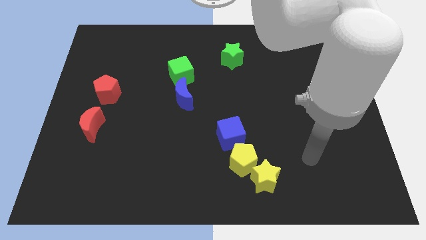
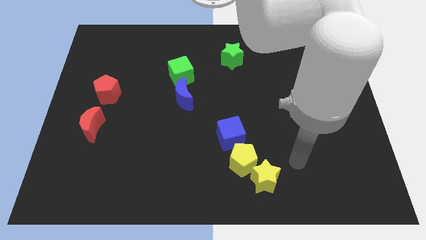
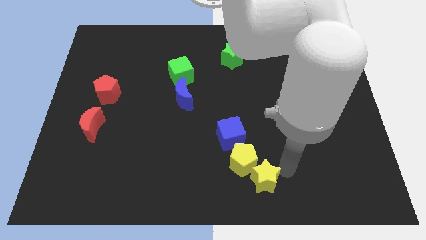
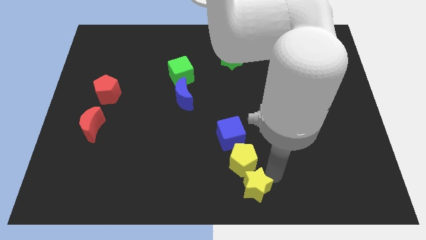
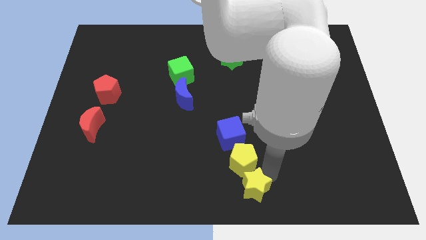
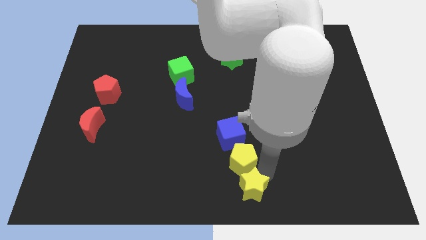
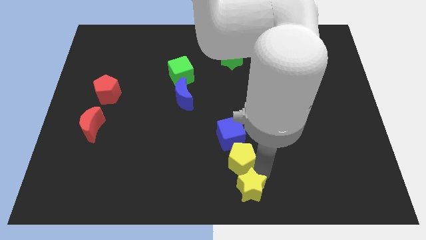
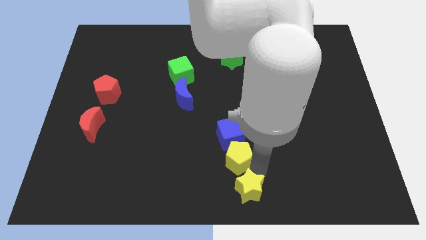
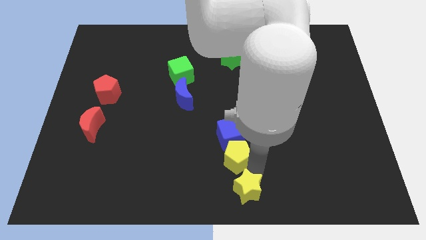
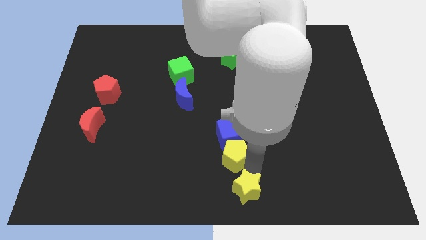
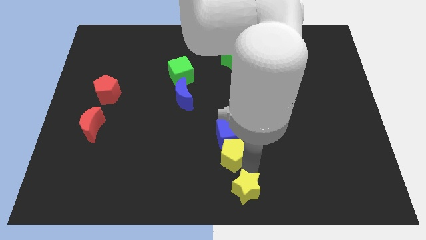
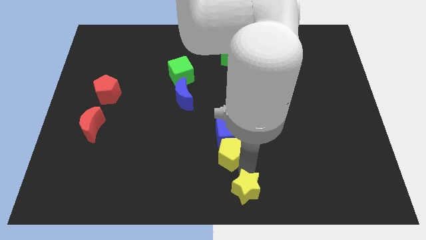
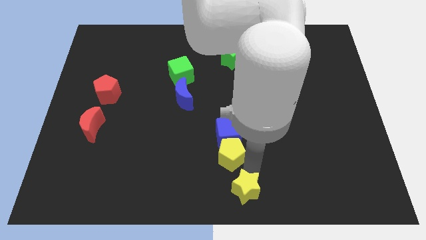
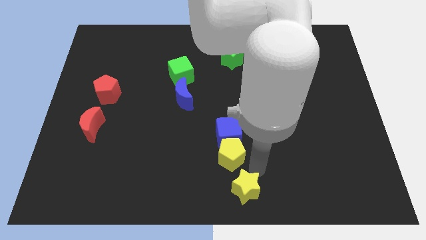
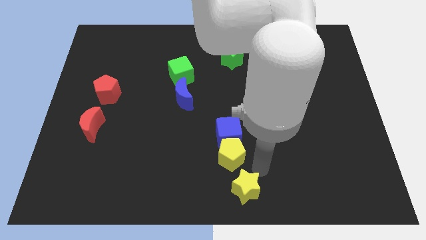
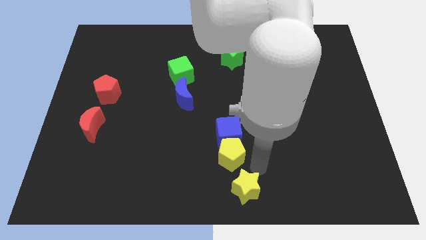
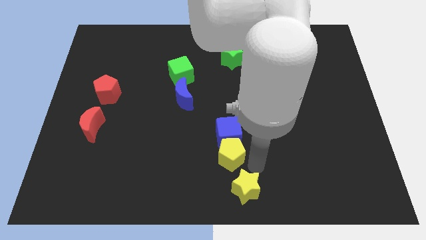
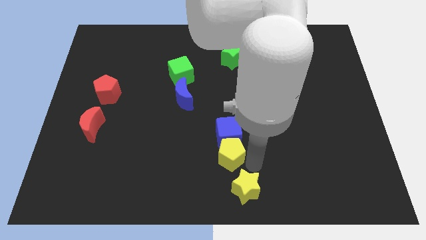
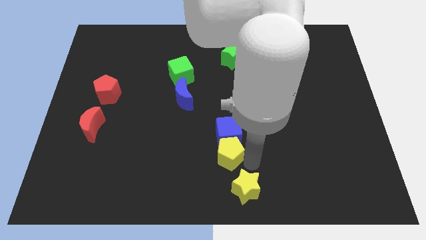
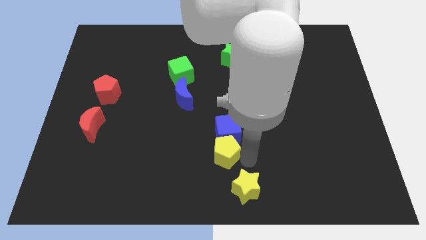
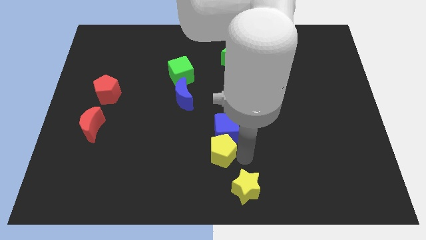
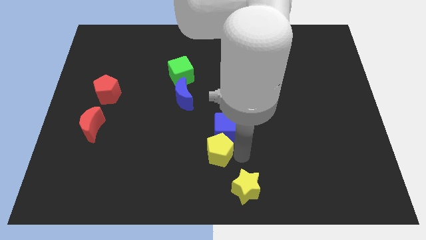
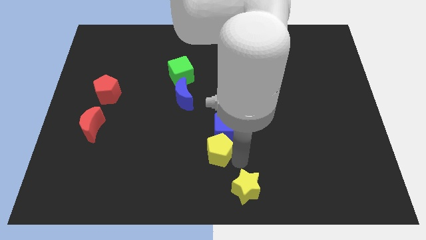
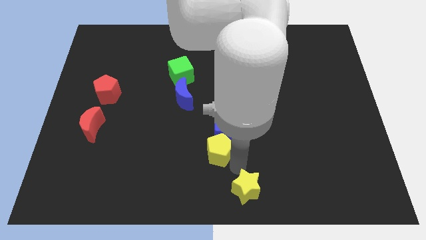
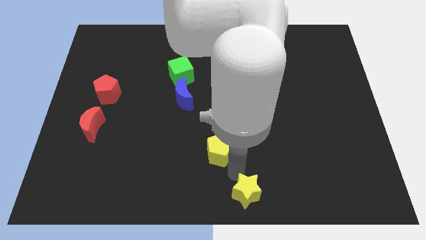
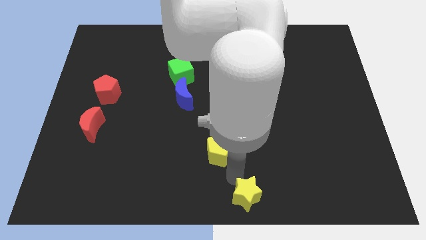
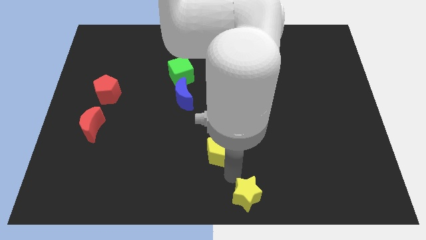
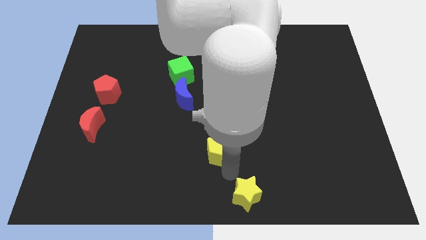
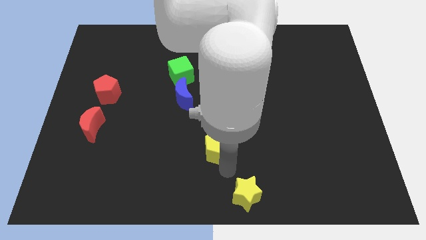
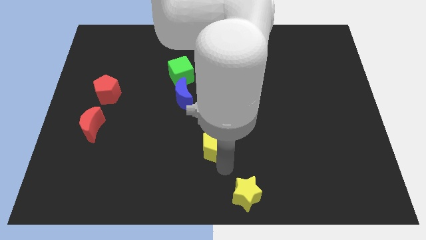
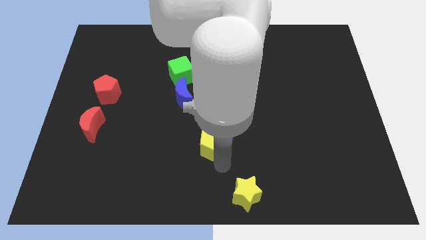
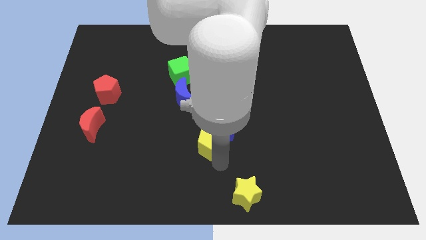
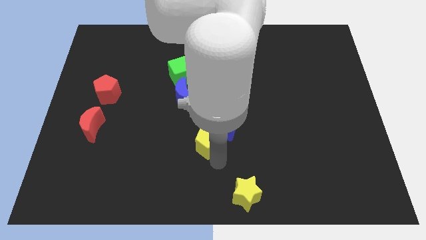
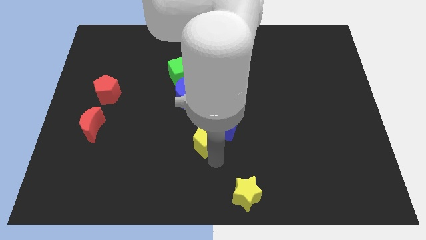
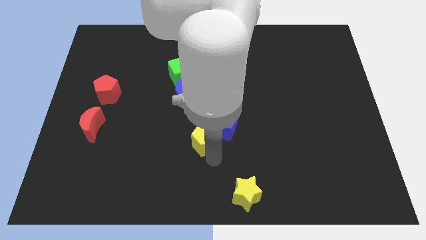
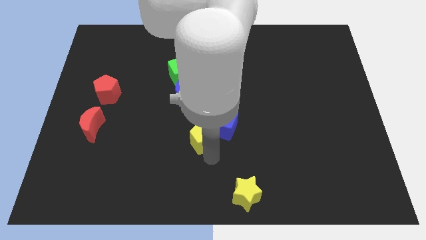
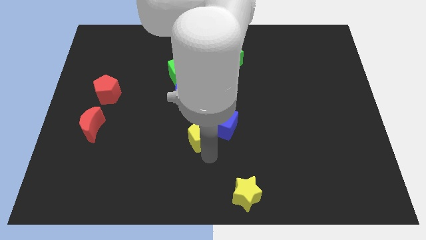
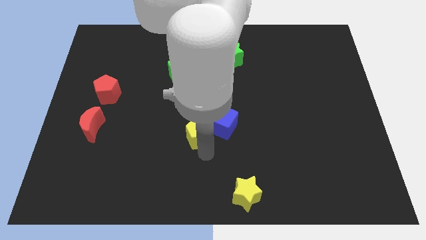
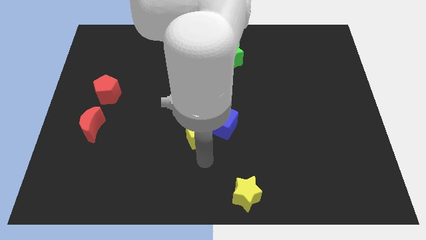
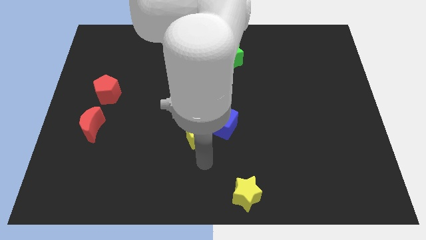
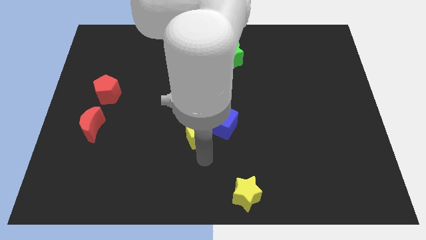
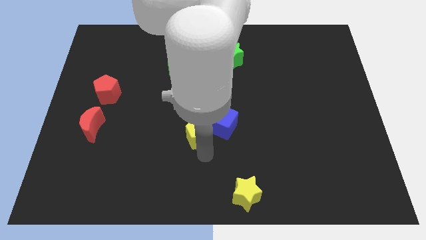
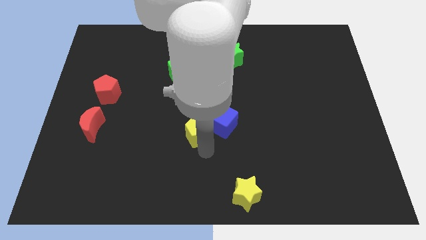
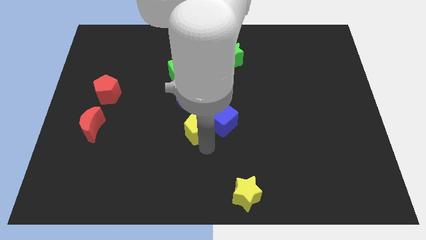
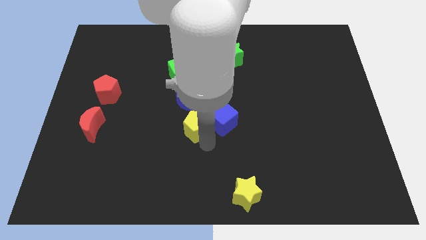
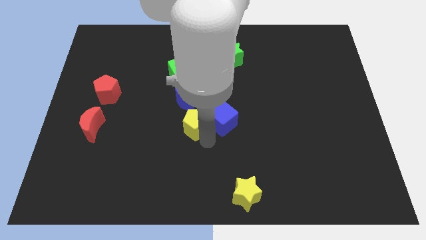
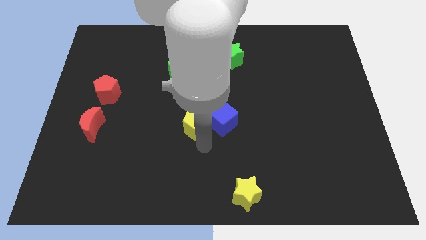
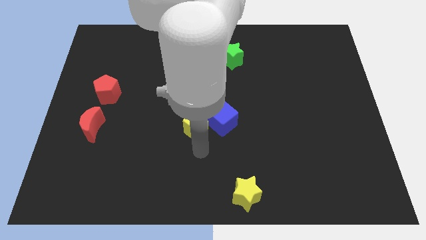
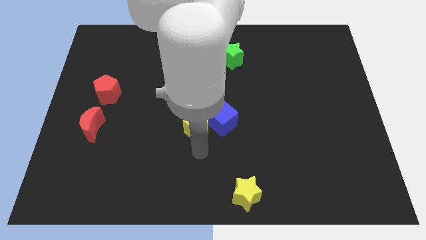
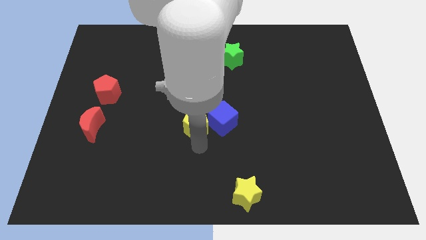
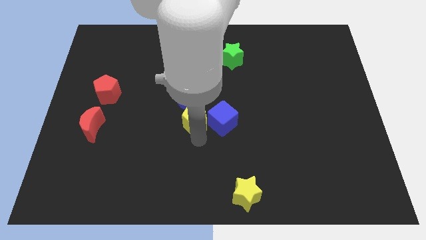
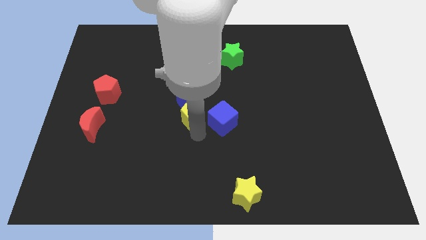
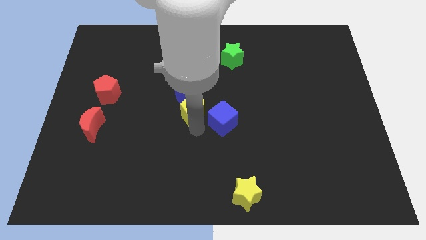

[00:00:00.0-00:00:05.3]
move the yellow pentagon to the blue moon

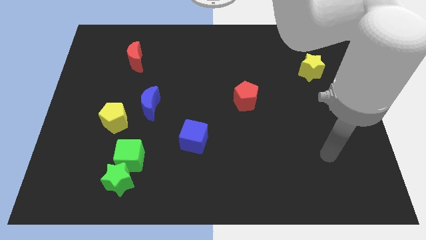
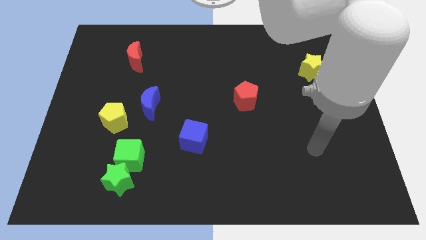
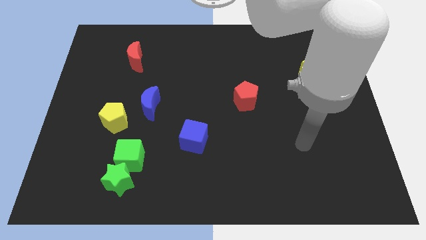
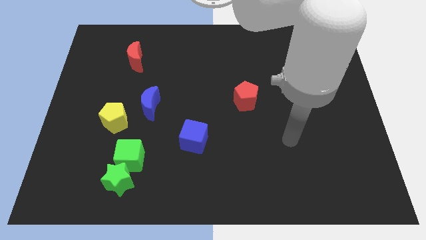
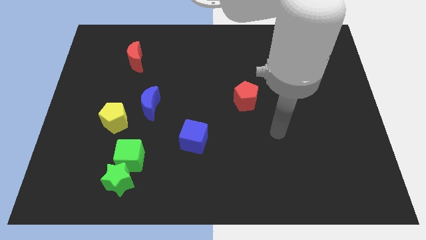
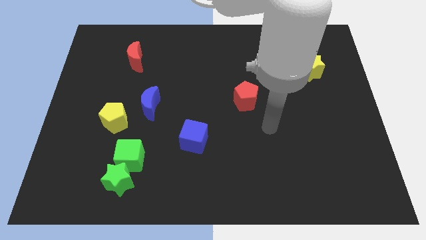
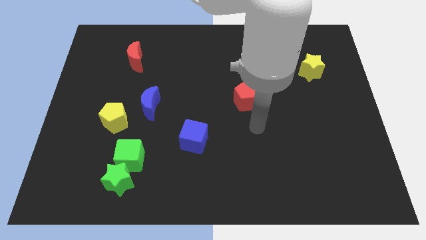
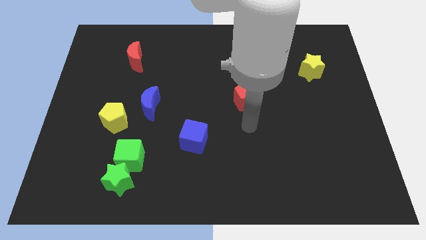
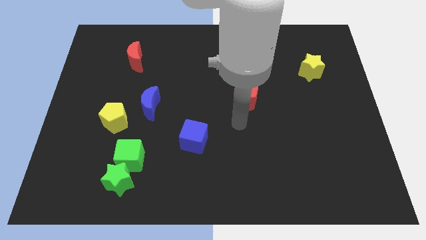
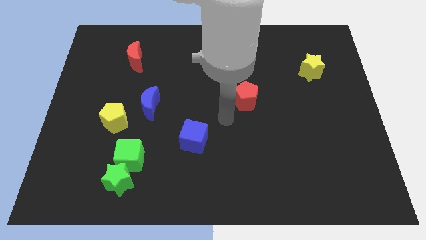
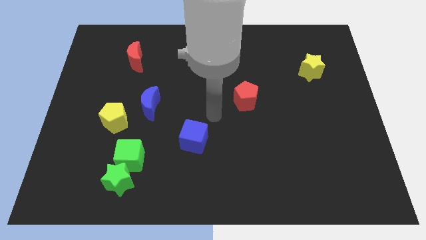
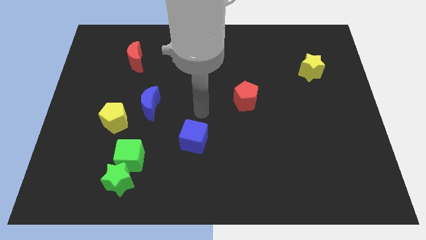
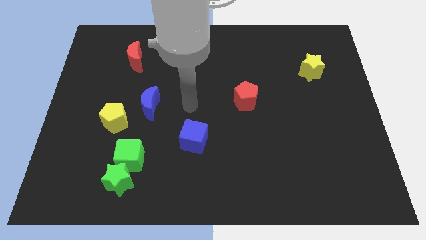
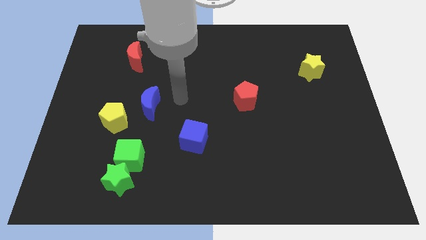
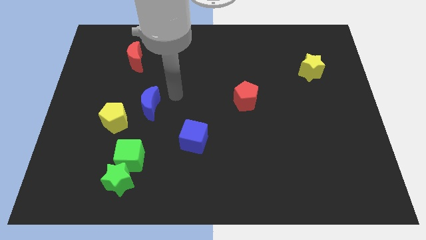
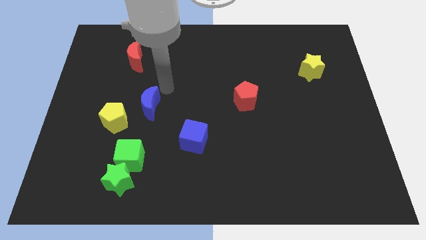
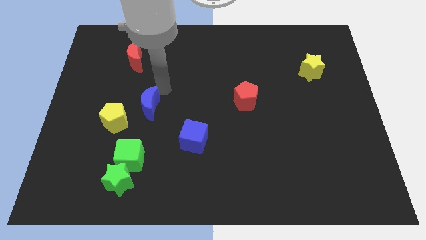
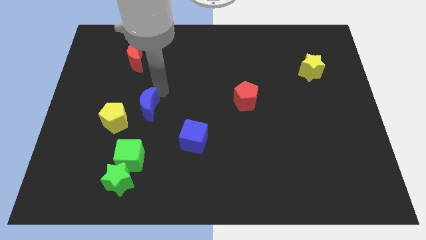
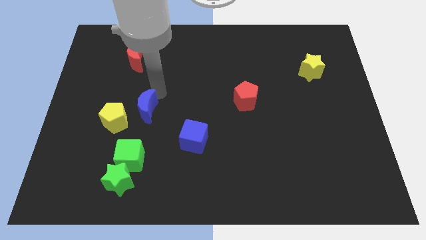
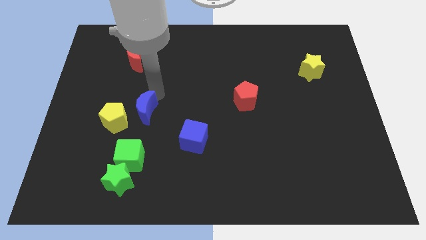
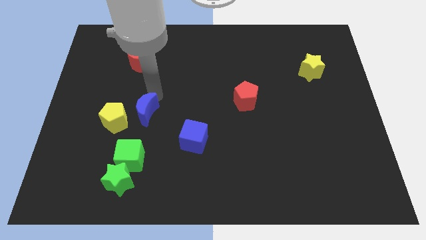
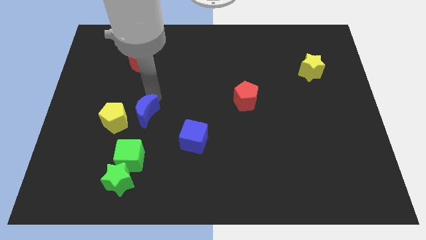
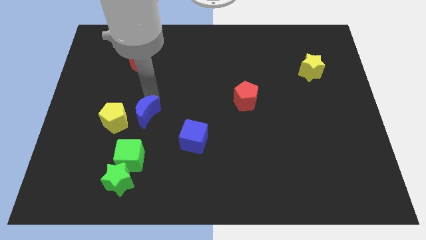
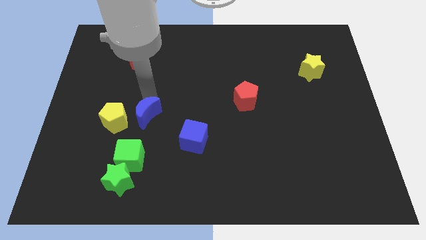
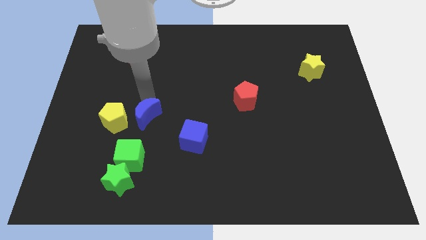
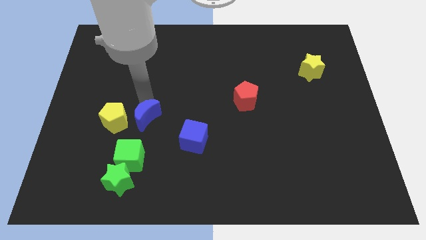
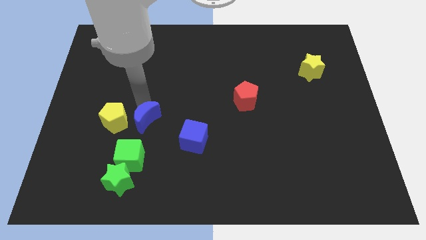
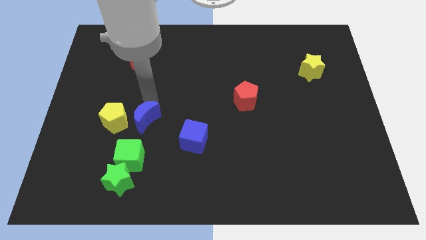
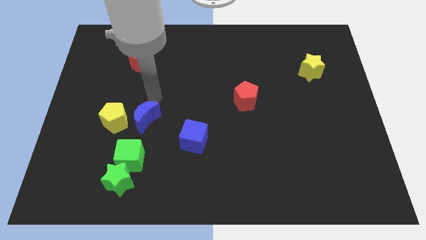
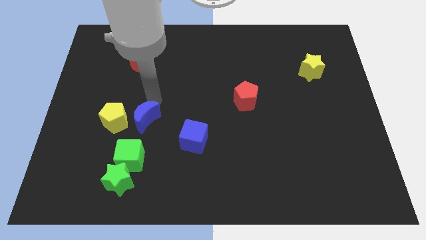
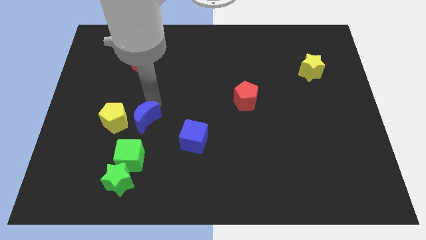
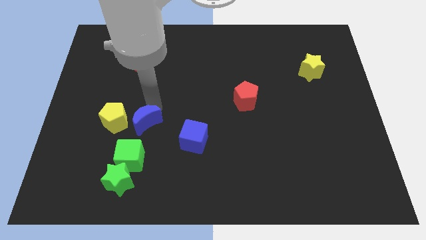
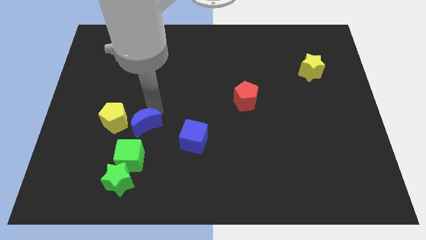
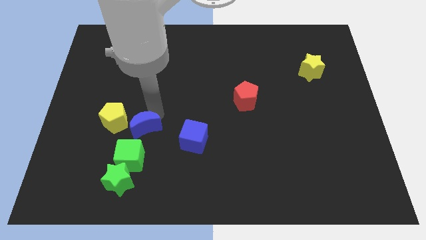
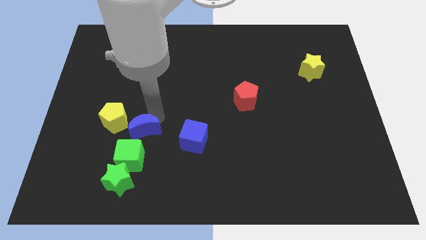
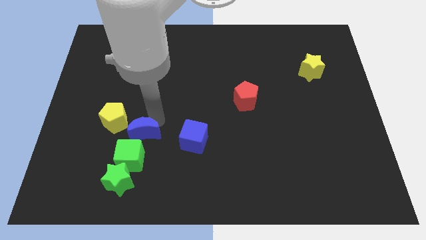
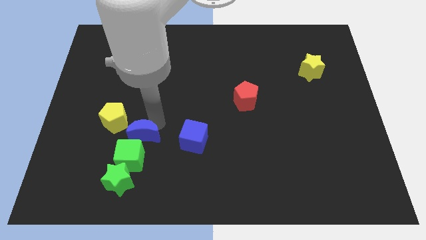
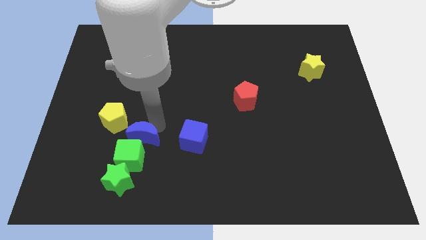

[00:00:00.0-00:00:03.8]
slide the blue moon to the green cube
